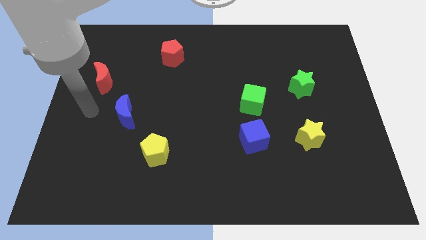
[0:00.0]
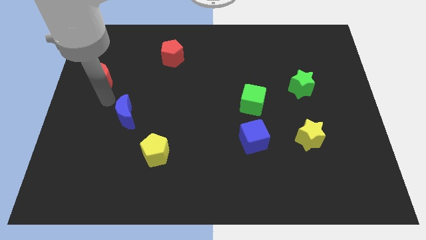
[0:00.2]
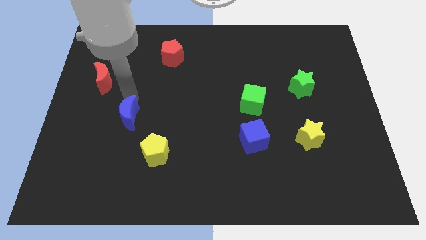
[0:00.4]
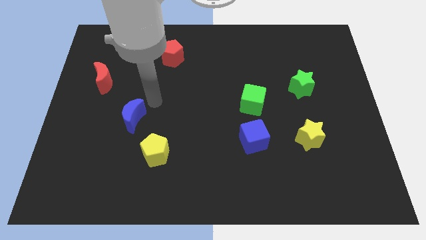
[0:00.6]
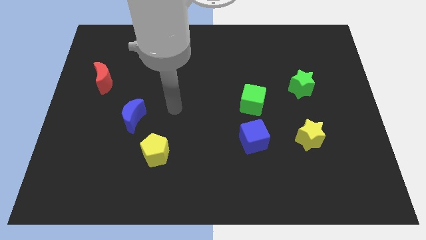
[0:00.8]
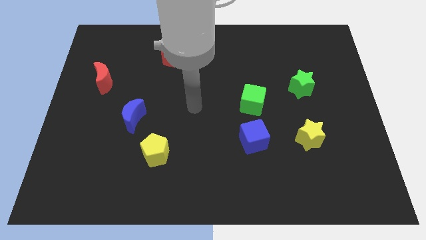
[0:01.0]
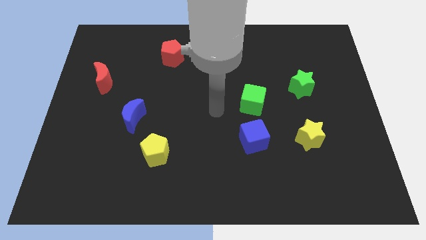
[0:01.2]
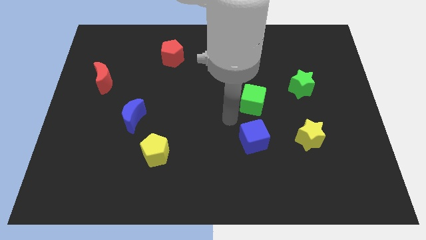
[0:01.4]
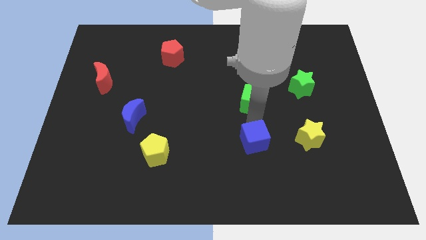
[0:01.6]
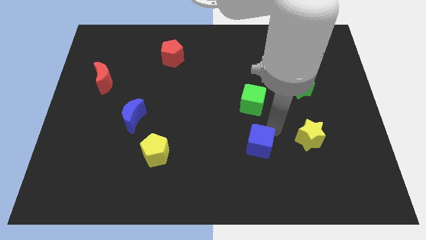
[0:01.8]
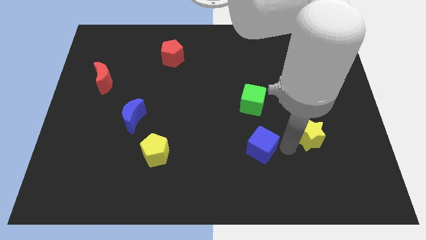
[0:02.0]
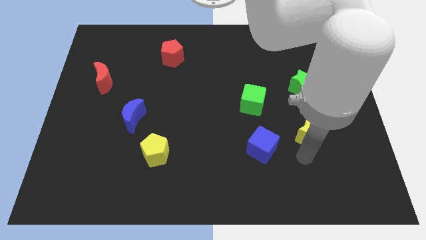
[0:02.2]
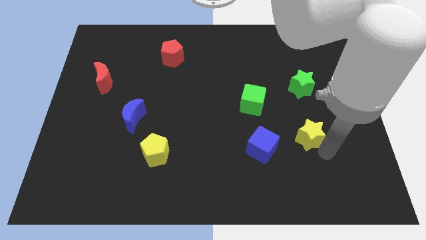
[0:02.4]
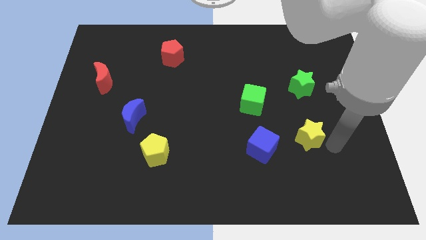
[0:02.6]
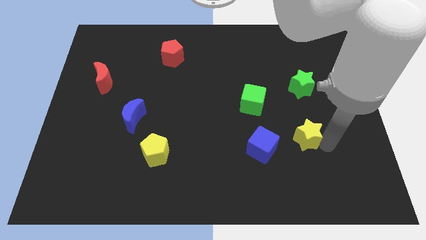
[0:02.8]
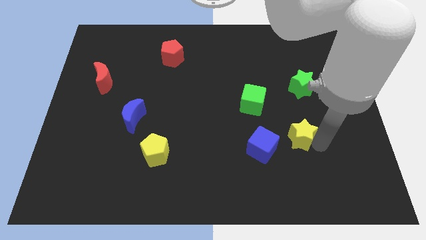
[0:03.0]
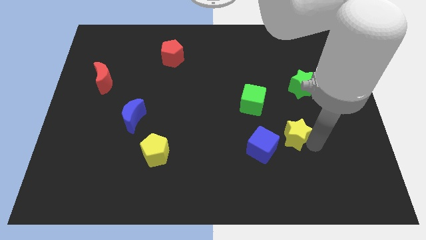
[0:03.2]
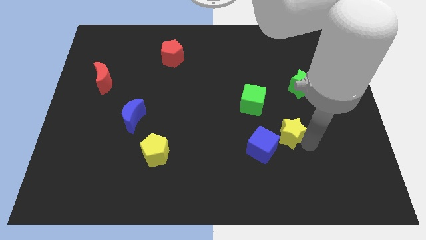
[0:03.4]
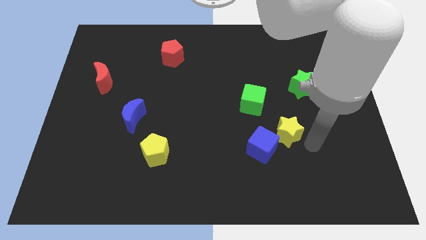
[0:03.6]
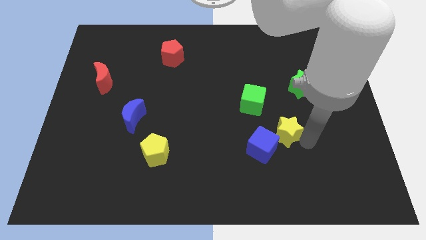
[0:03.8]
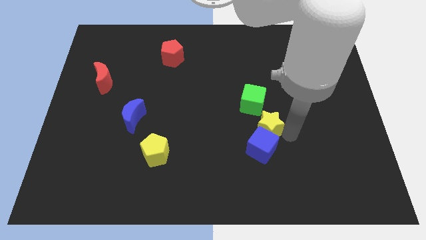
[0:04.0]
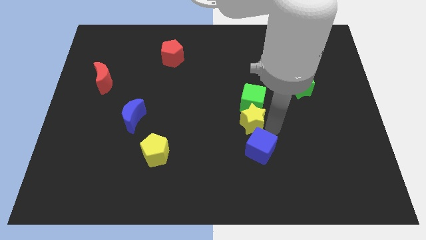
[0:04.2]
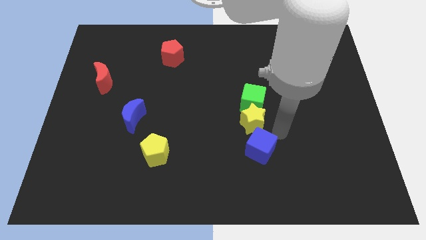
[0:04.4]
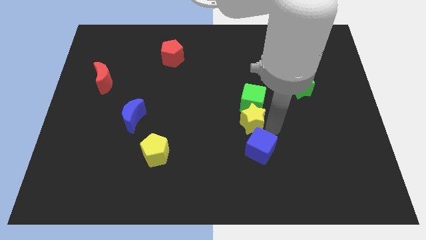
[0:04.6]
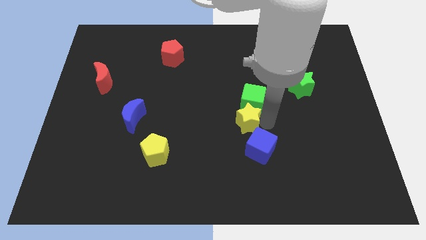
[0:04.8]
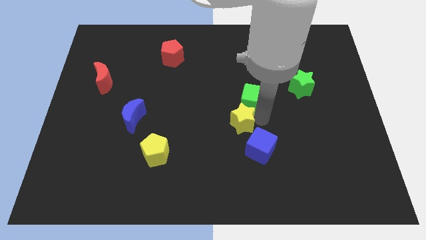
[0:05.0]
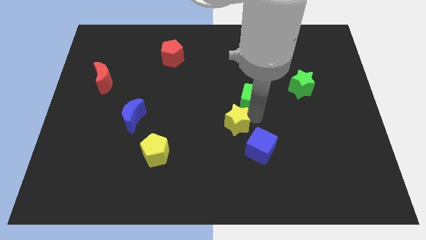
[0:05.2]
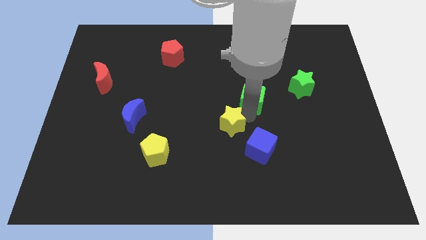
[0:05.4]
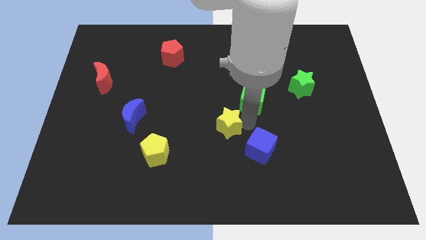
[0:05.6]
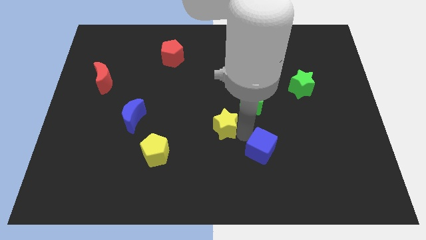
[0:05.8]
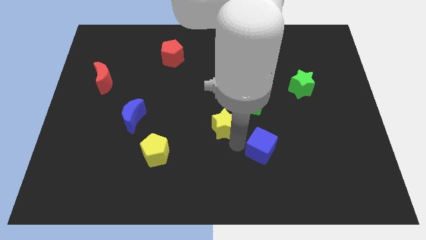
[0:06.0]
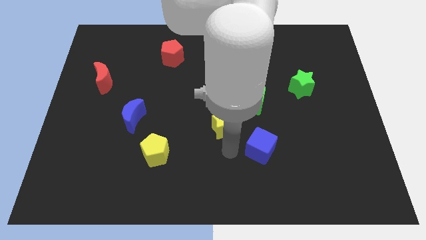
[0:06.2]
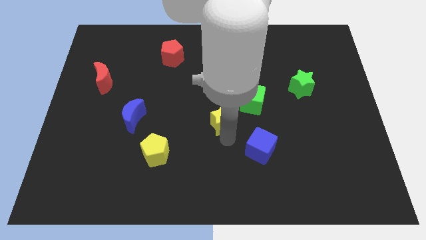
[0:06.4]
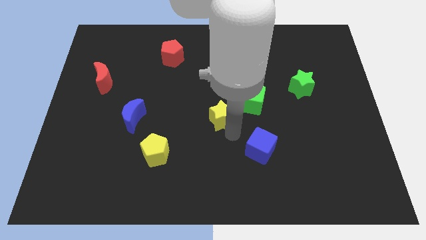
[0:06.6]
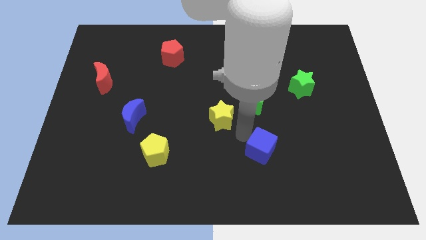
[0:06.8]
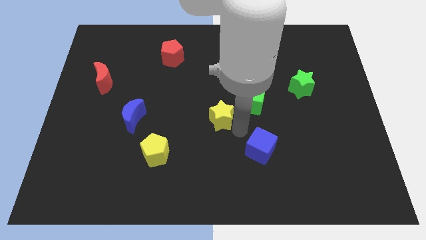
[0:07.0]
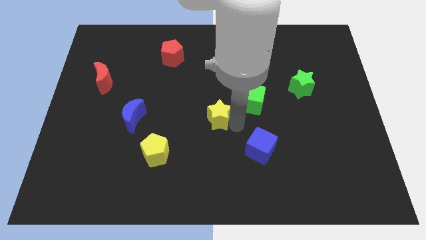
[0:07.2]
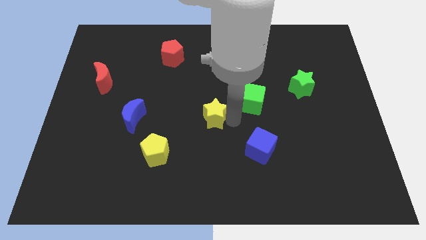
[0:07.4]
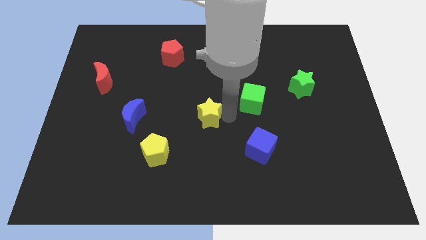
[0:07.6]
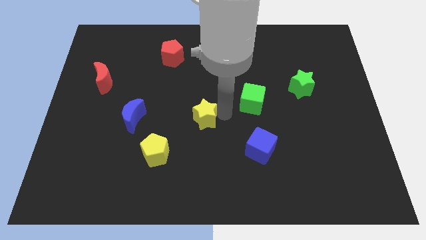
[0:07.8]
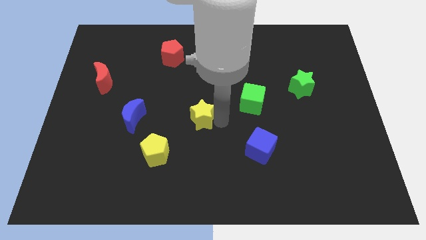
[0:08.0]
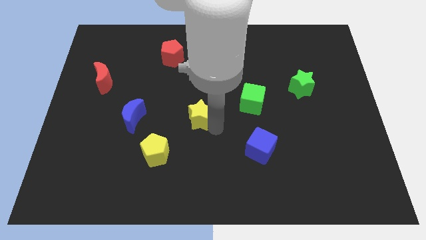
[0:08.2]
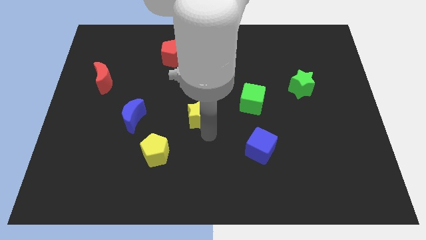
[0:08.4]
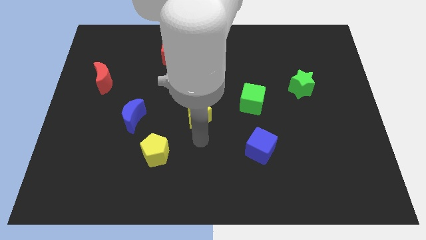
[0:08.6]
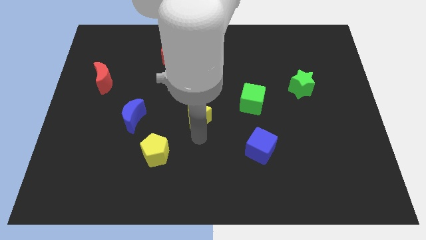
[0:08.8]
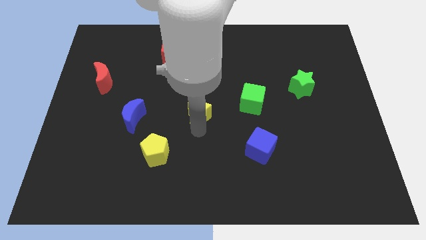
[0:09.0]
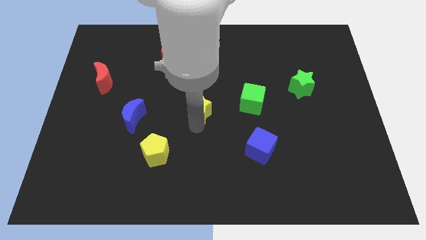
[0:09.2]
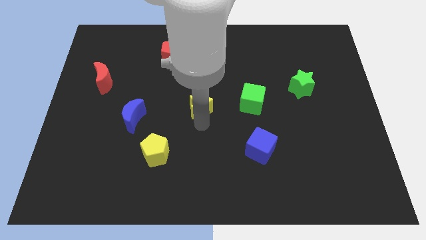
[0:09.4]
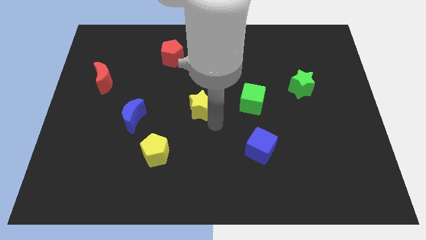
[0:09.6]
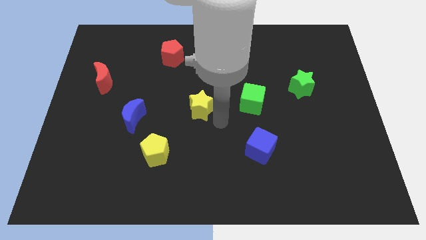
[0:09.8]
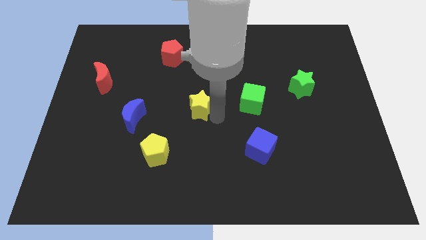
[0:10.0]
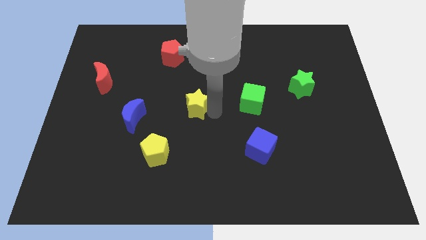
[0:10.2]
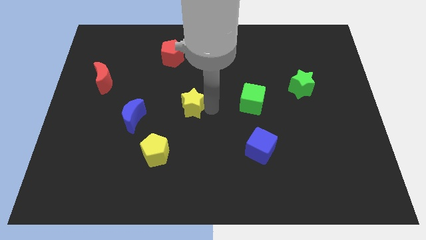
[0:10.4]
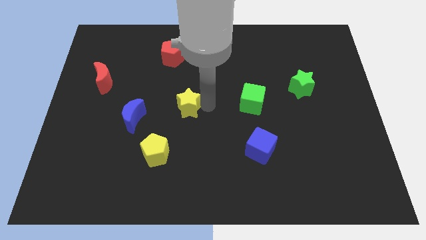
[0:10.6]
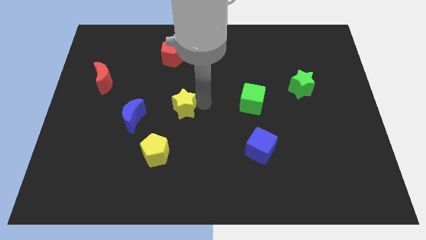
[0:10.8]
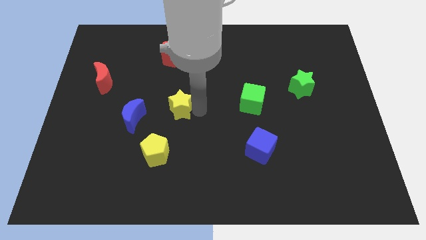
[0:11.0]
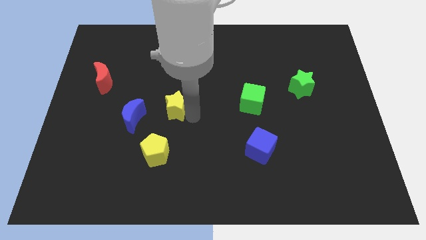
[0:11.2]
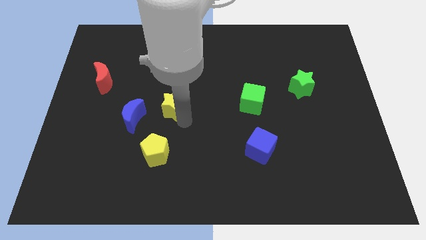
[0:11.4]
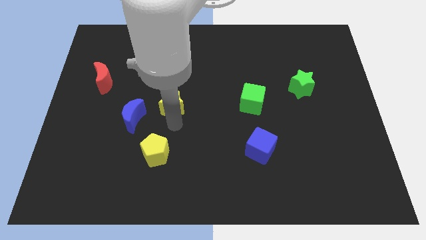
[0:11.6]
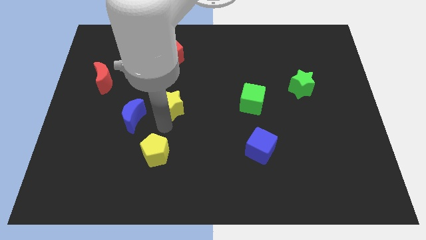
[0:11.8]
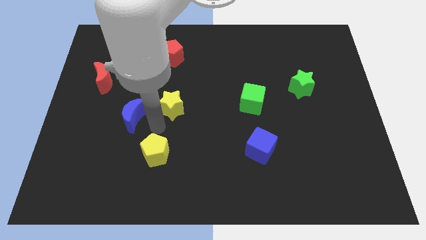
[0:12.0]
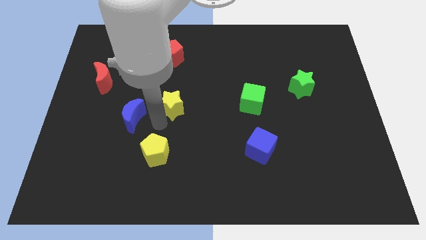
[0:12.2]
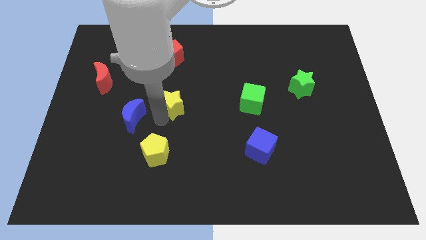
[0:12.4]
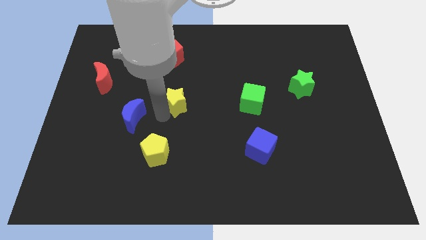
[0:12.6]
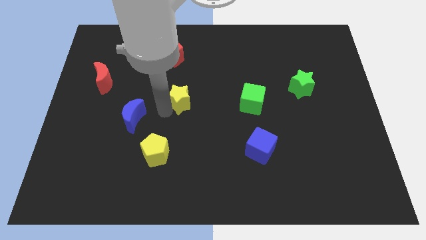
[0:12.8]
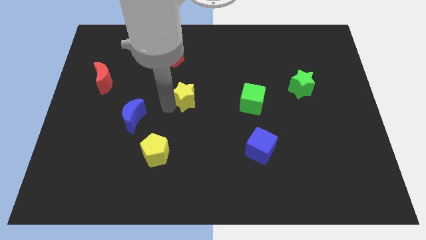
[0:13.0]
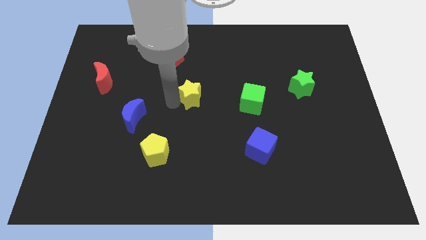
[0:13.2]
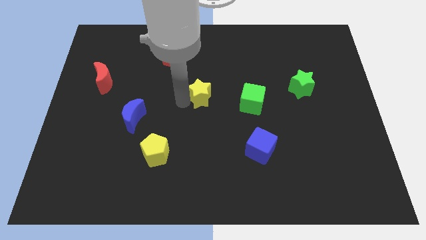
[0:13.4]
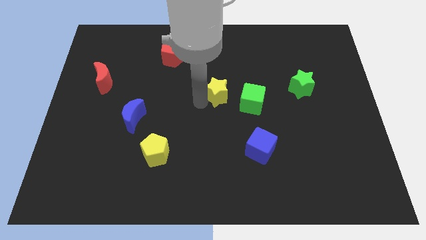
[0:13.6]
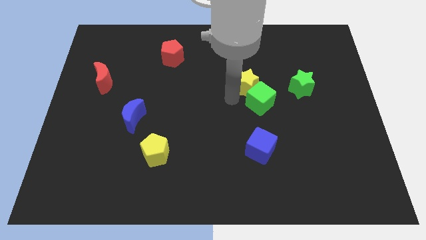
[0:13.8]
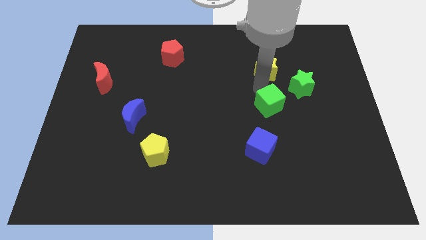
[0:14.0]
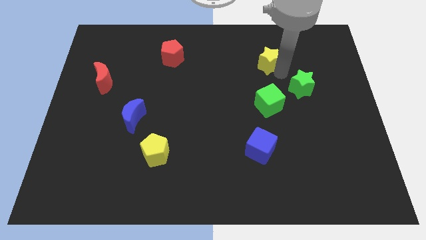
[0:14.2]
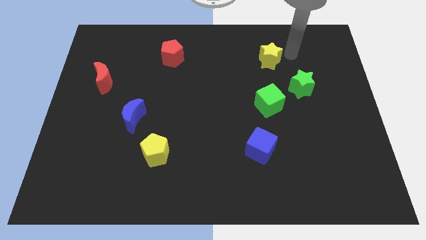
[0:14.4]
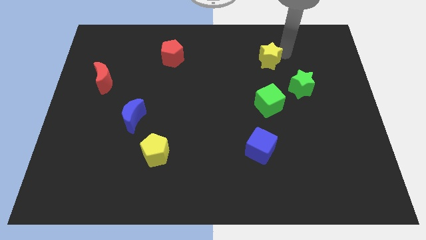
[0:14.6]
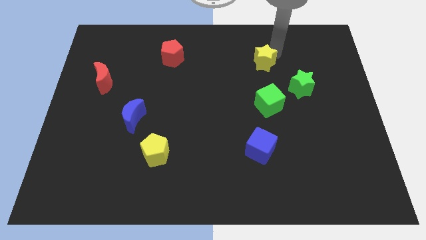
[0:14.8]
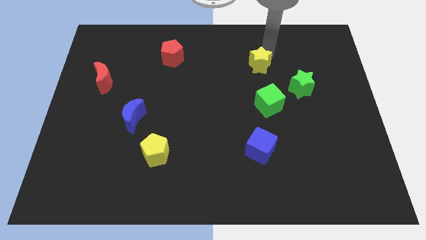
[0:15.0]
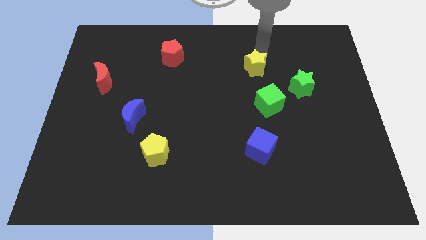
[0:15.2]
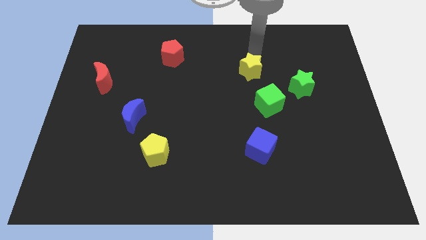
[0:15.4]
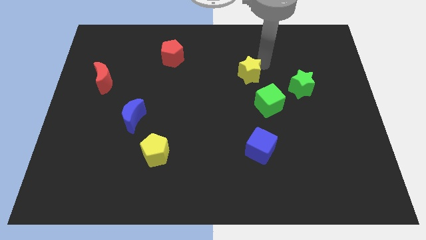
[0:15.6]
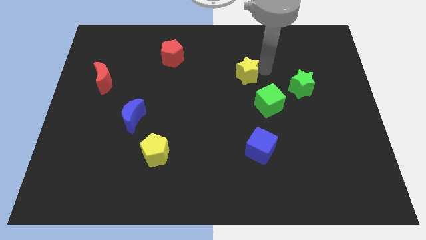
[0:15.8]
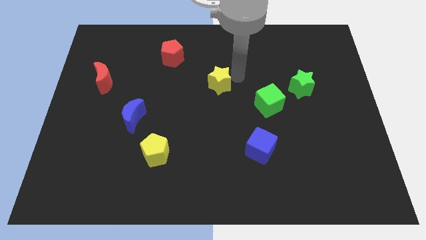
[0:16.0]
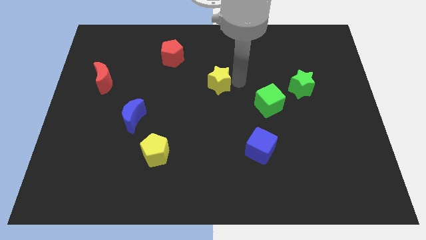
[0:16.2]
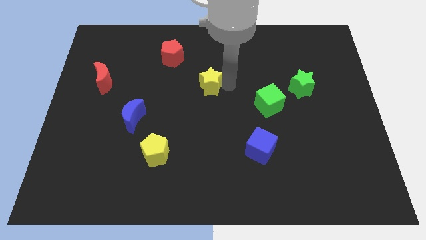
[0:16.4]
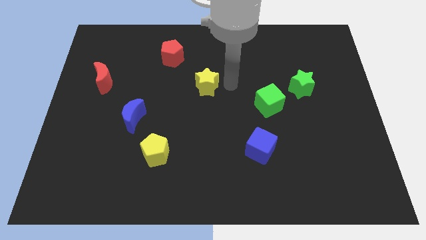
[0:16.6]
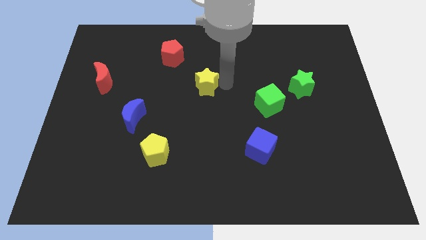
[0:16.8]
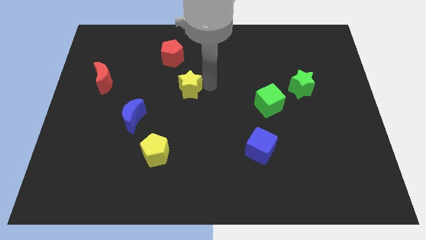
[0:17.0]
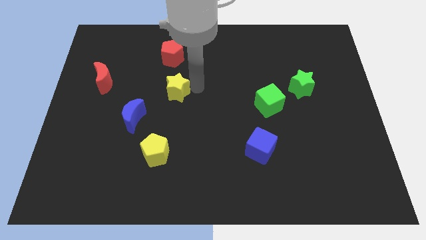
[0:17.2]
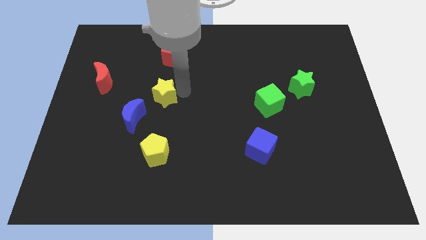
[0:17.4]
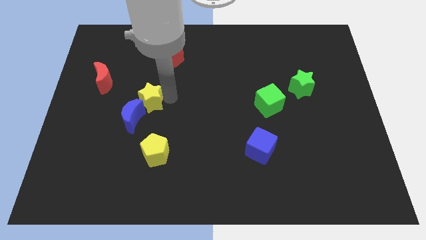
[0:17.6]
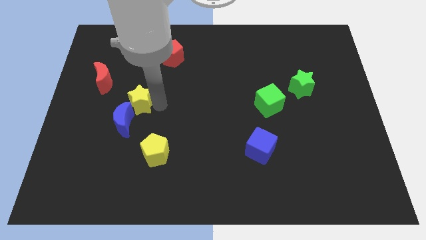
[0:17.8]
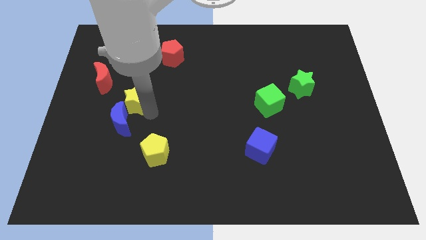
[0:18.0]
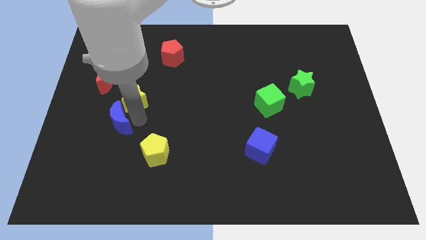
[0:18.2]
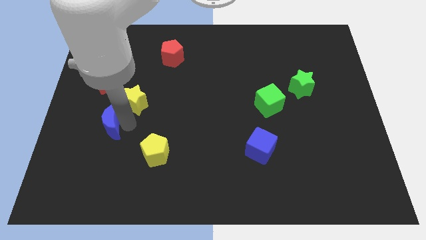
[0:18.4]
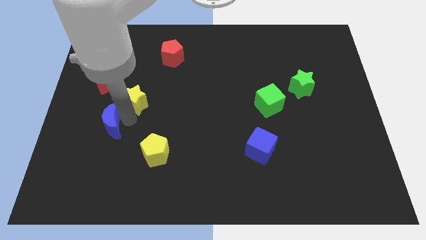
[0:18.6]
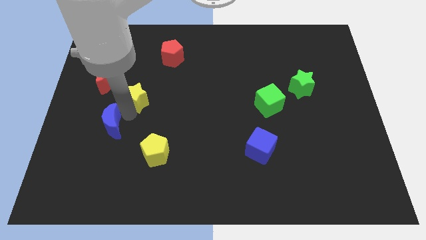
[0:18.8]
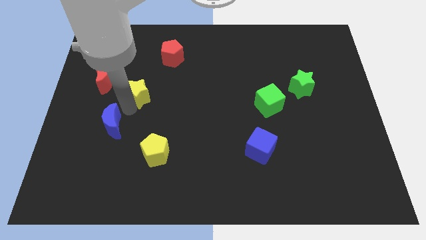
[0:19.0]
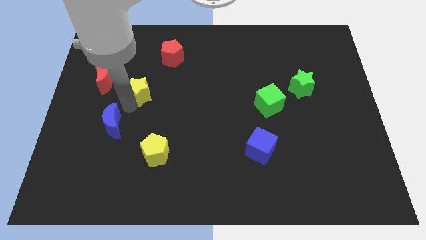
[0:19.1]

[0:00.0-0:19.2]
put the yellow star to the right side of the red moon
